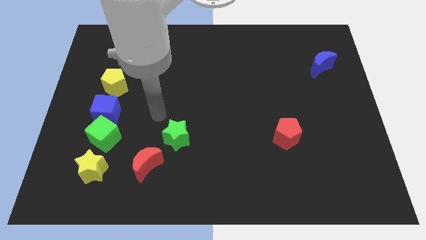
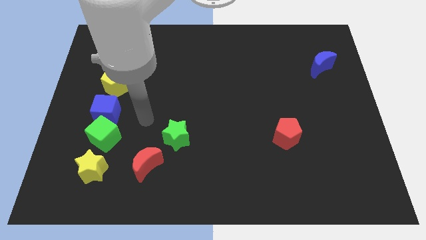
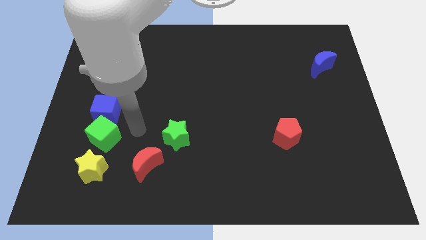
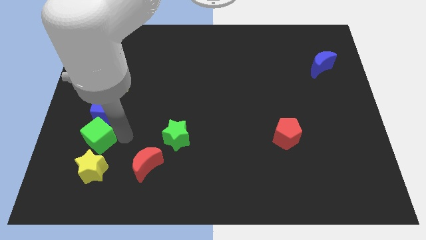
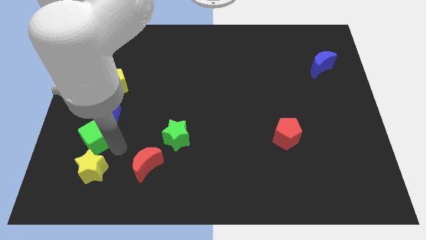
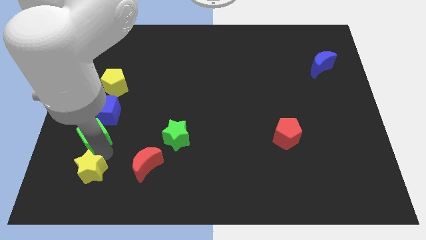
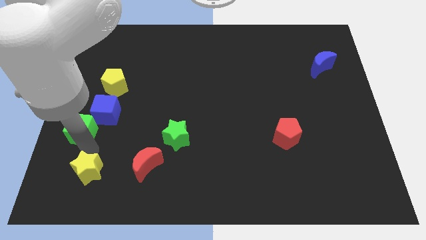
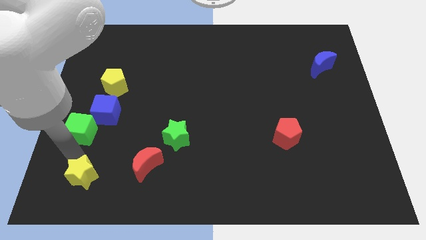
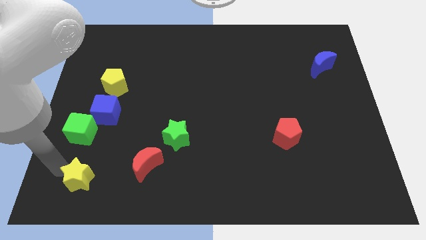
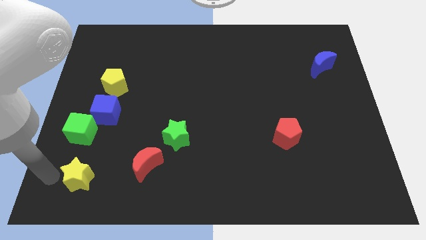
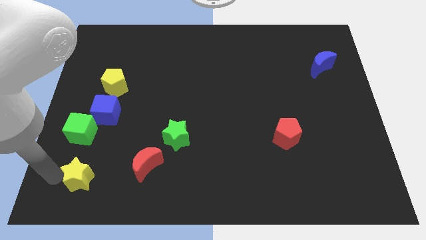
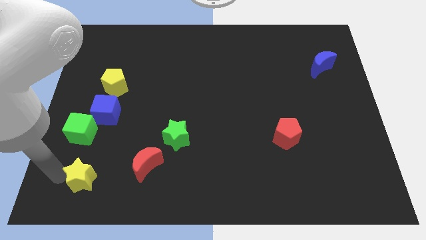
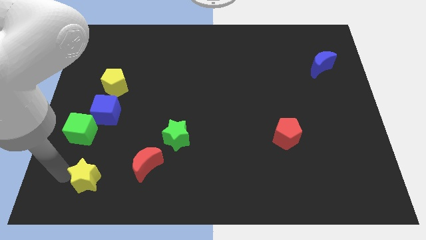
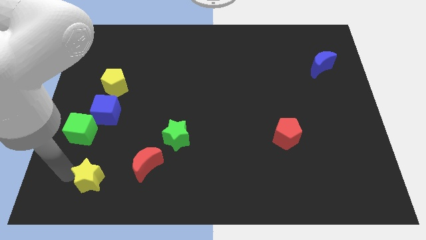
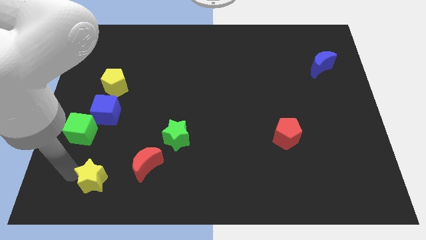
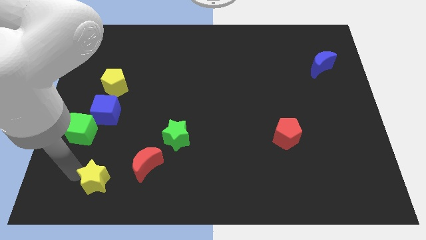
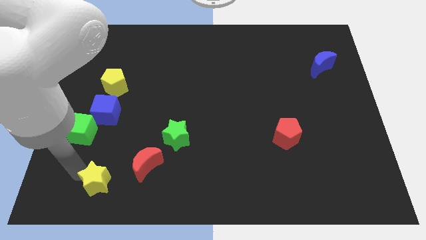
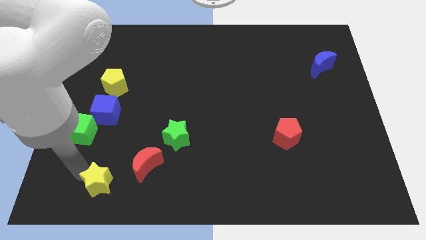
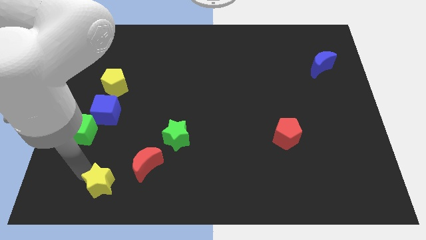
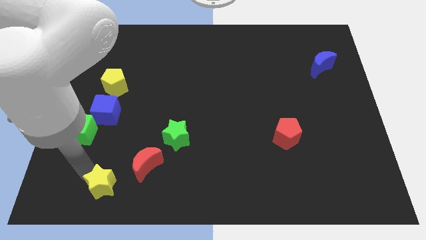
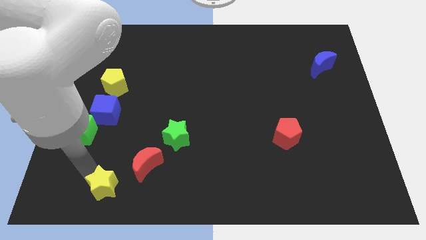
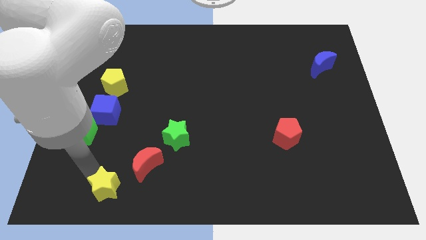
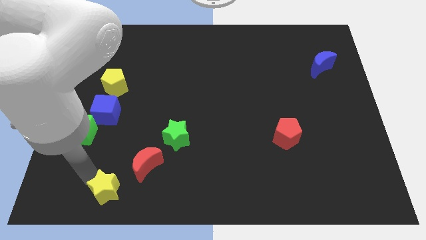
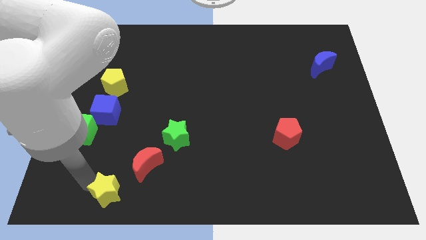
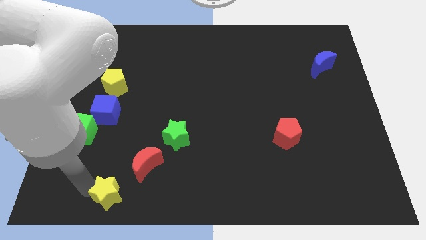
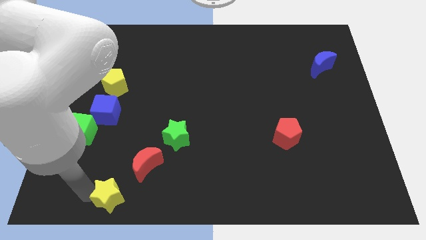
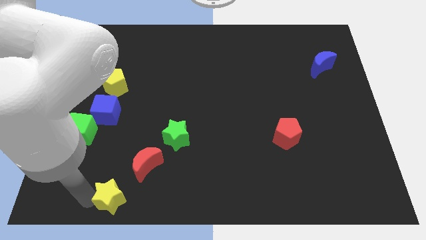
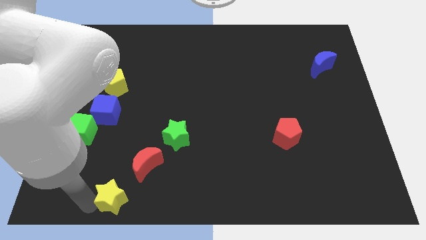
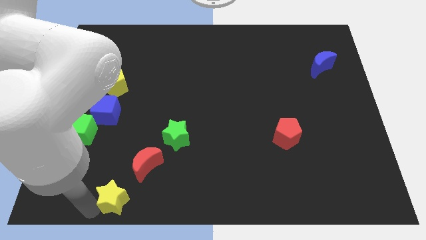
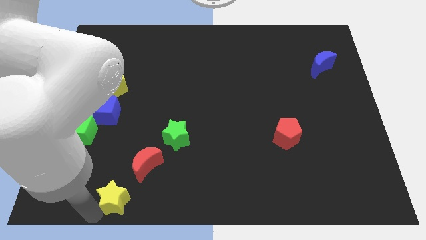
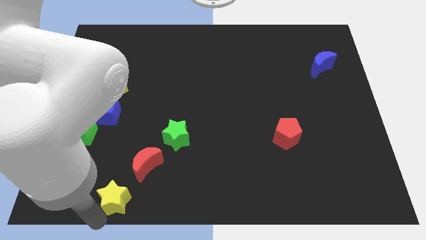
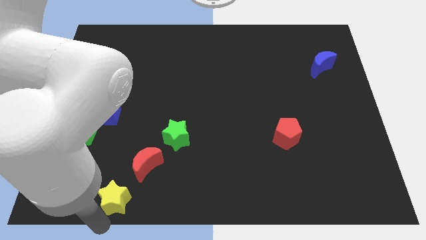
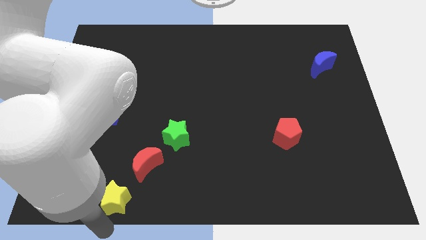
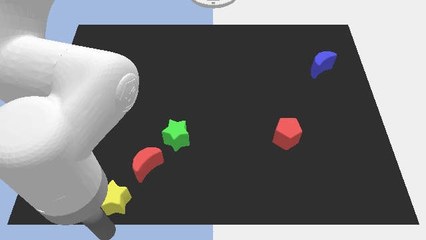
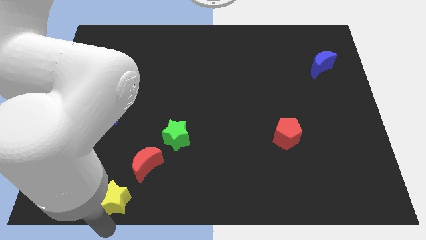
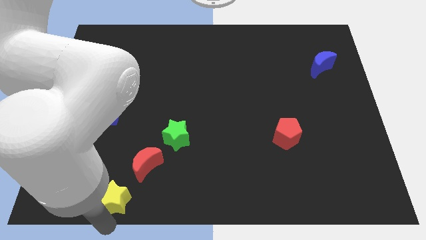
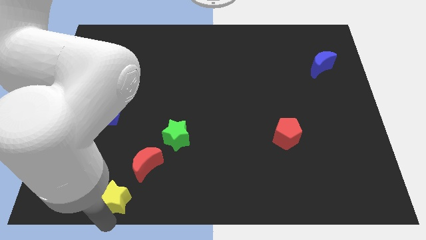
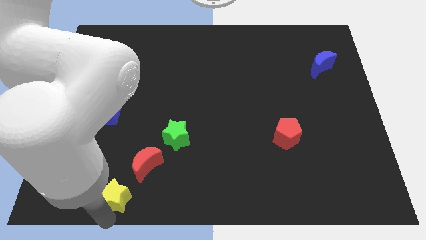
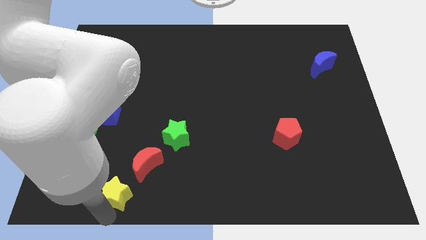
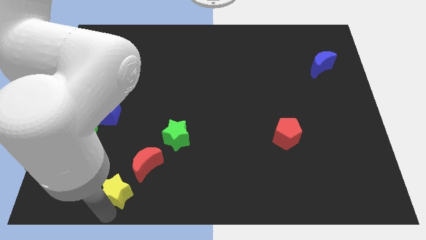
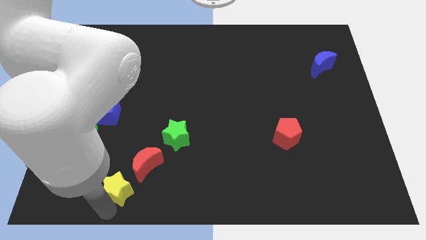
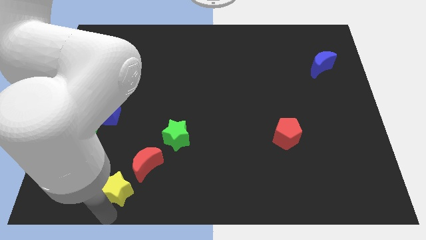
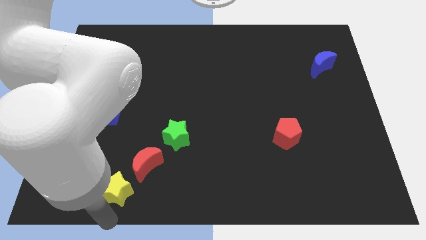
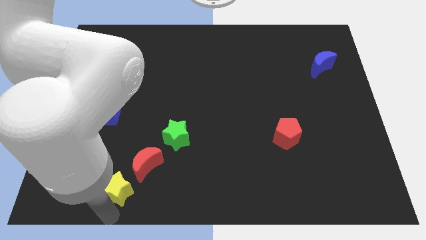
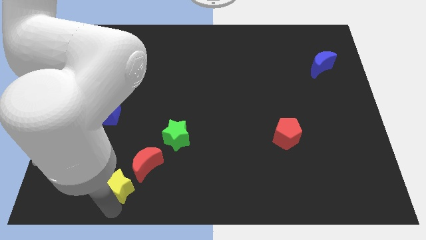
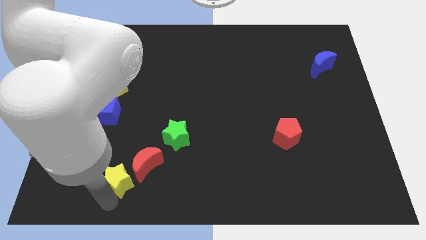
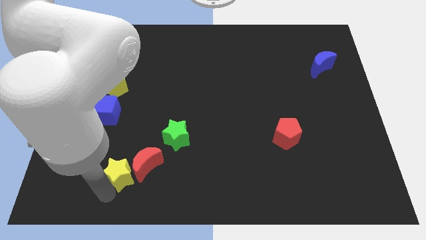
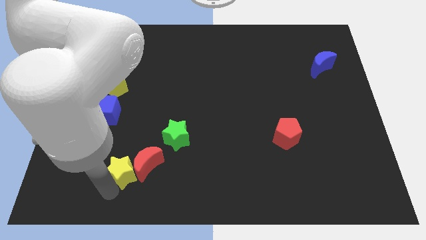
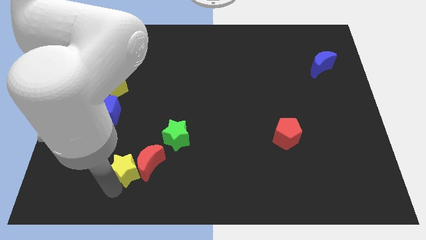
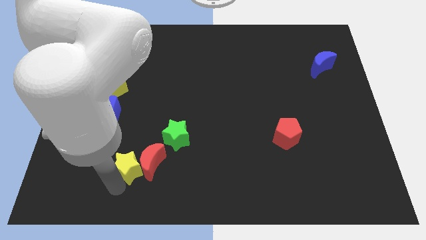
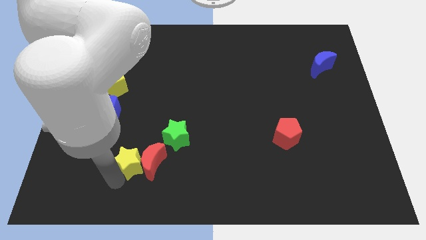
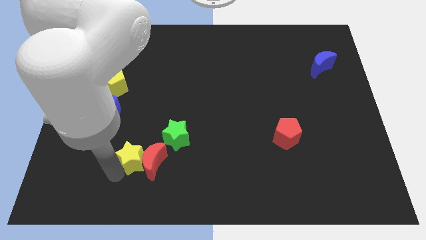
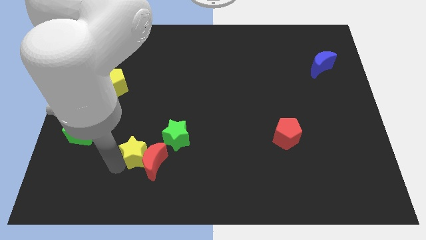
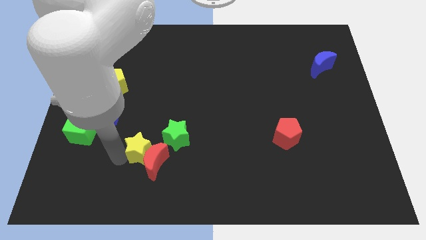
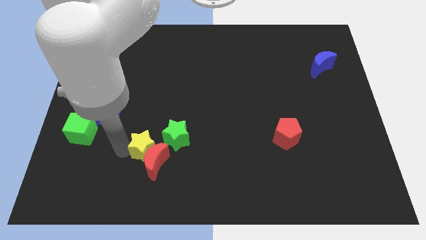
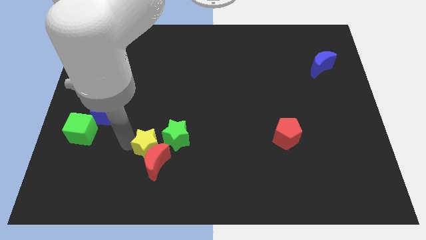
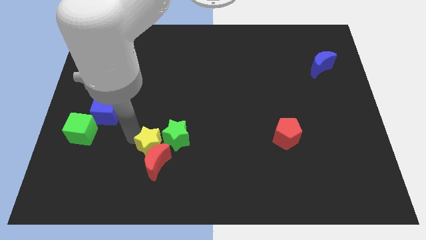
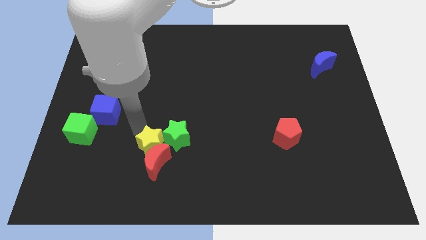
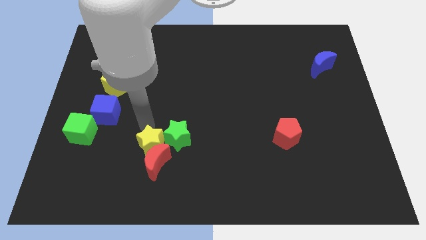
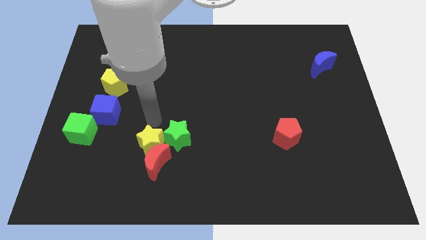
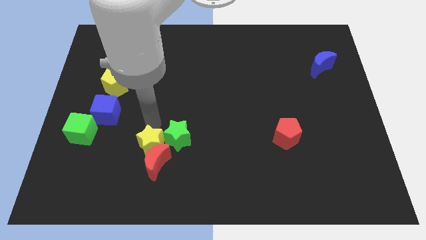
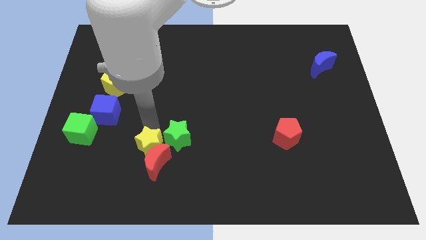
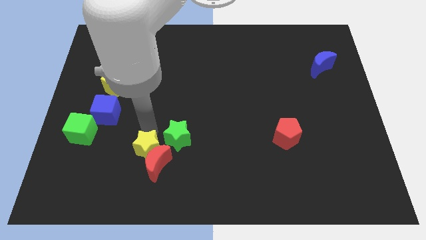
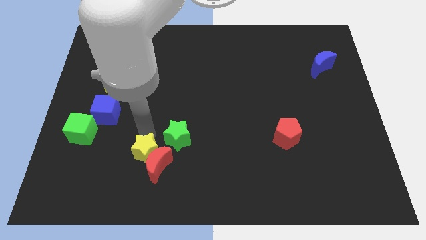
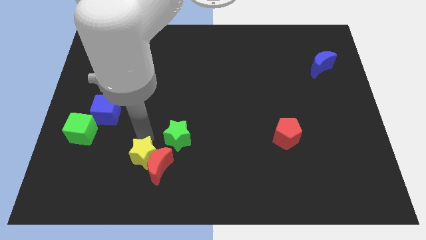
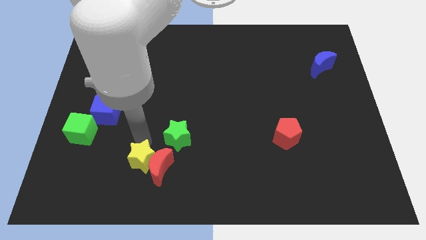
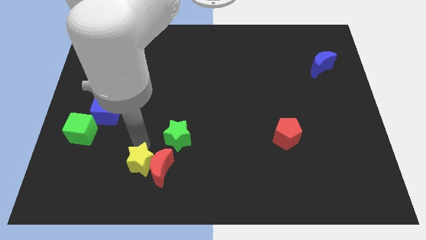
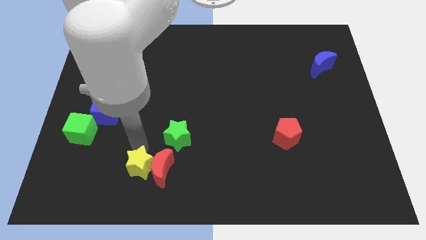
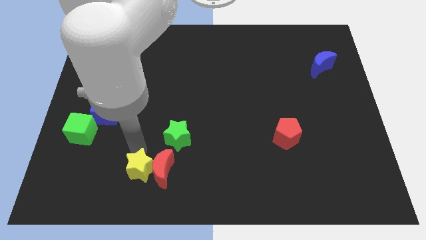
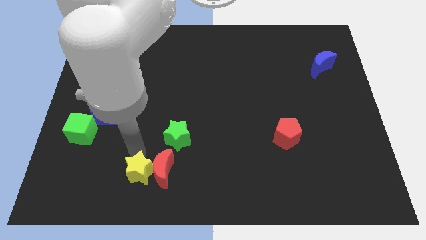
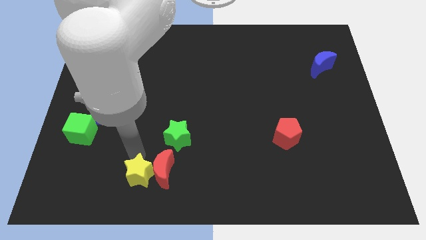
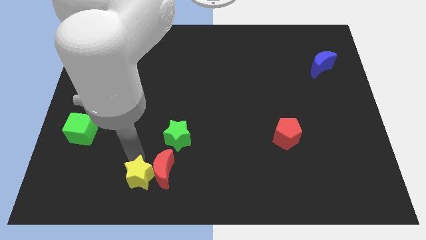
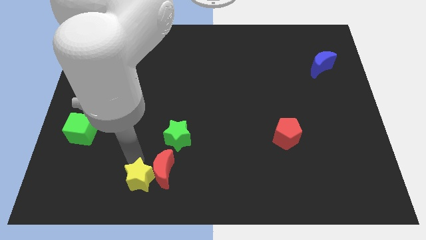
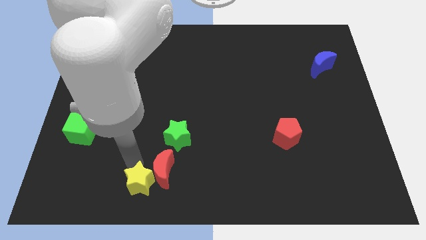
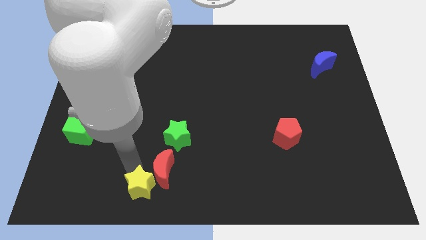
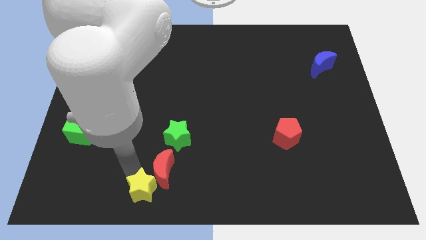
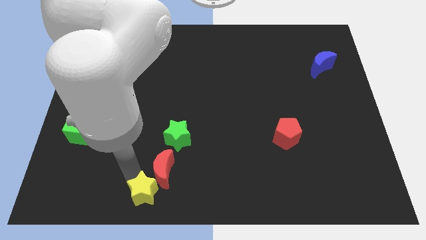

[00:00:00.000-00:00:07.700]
move the yellow star to the bottom
